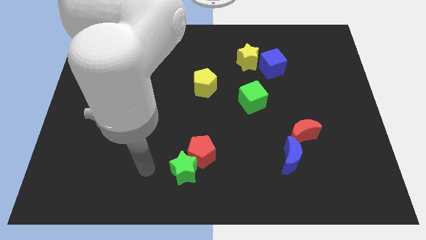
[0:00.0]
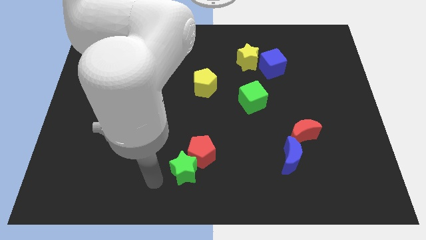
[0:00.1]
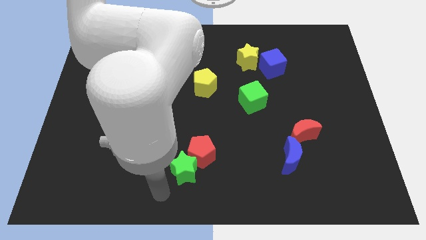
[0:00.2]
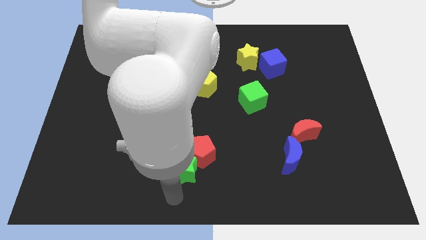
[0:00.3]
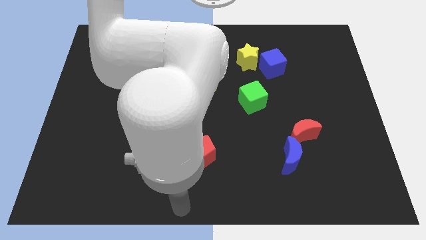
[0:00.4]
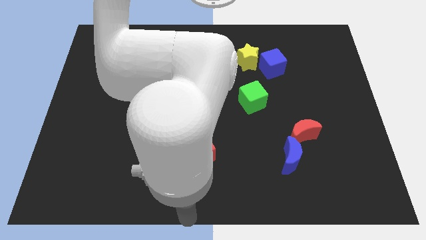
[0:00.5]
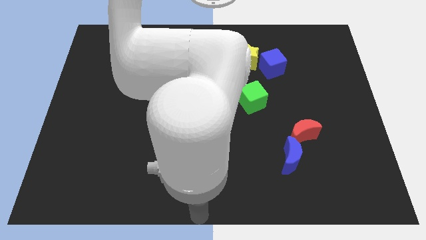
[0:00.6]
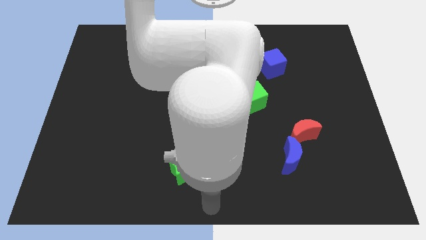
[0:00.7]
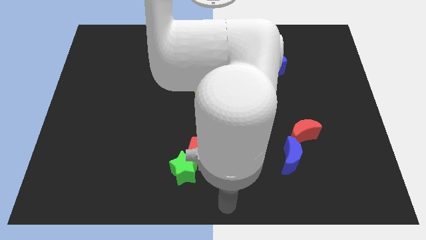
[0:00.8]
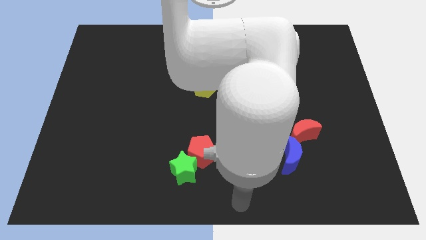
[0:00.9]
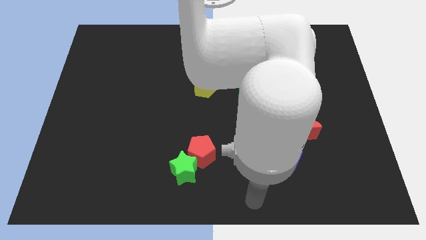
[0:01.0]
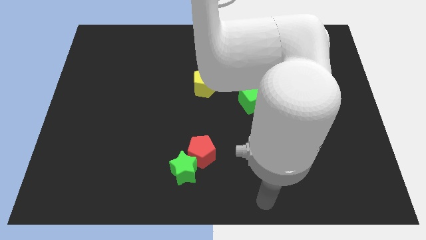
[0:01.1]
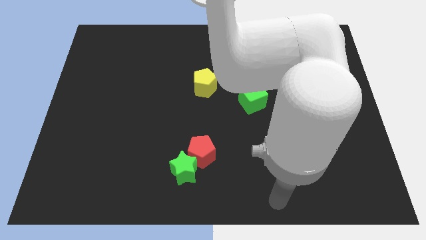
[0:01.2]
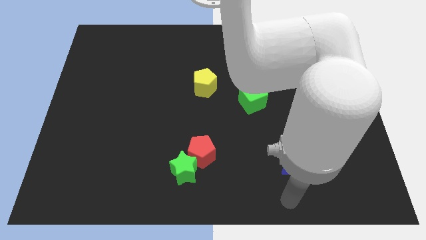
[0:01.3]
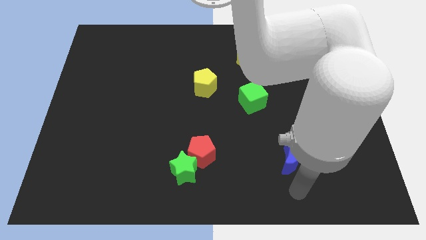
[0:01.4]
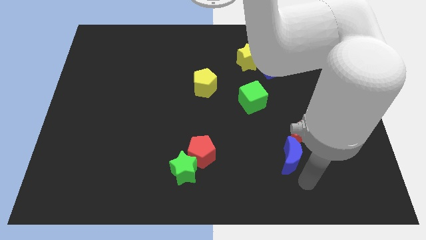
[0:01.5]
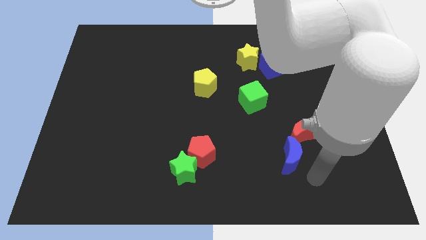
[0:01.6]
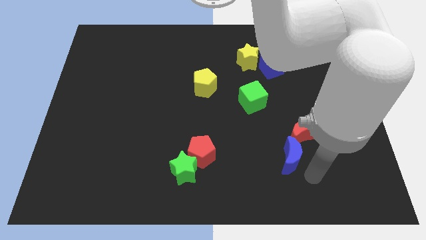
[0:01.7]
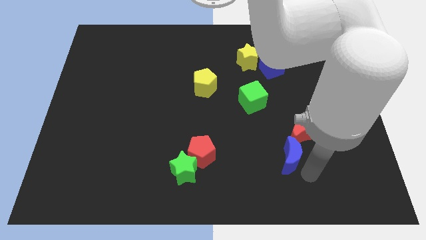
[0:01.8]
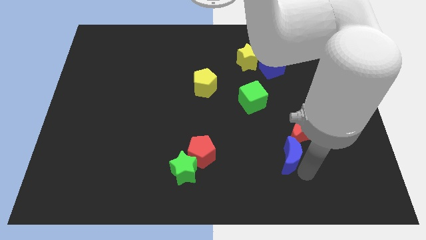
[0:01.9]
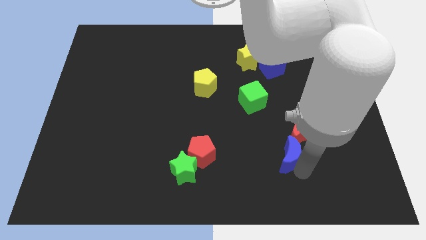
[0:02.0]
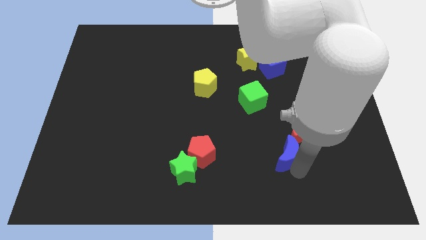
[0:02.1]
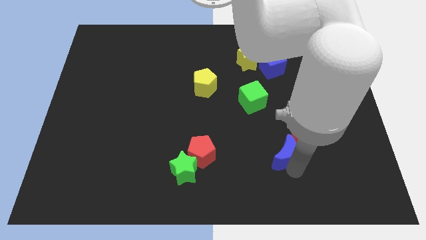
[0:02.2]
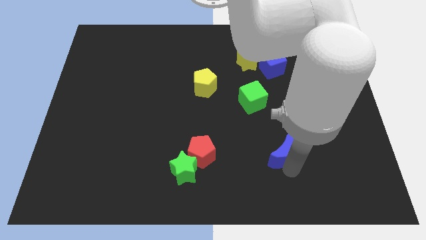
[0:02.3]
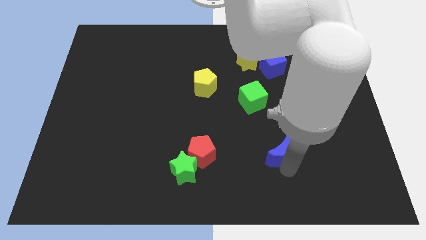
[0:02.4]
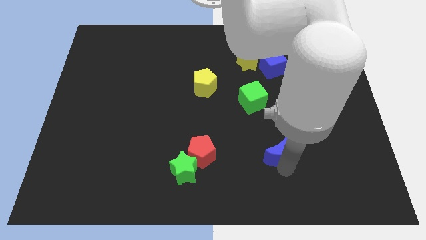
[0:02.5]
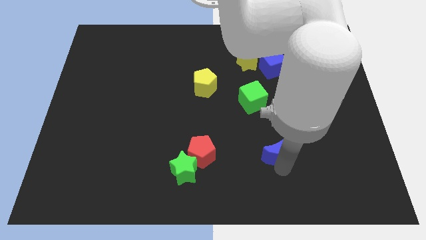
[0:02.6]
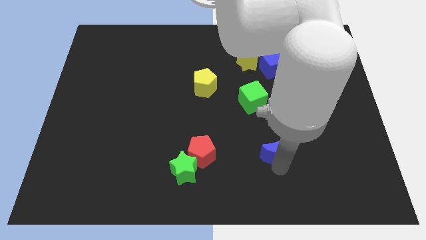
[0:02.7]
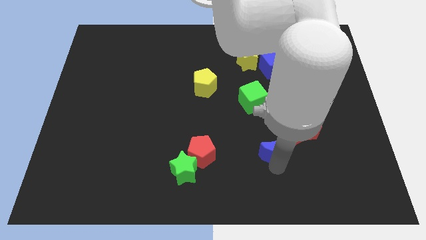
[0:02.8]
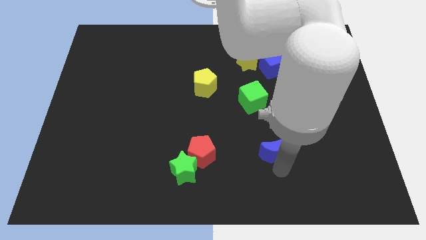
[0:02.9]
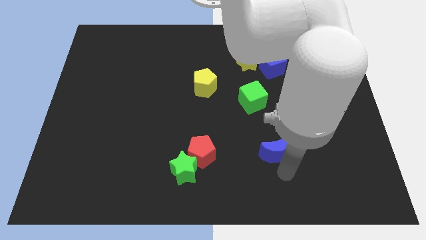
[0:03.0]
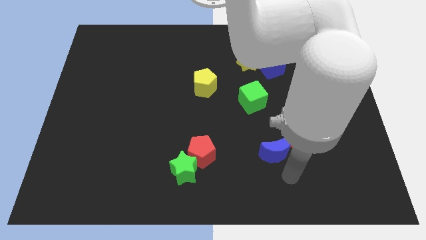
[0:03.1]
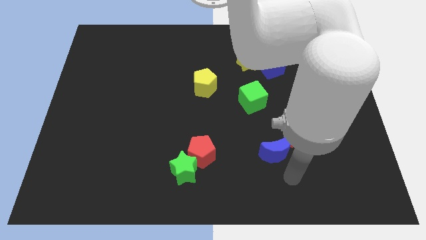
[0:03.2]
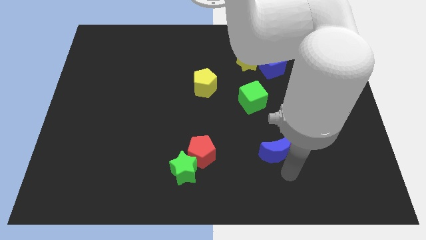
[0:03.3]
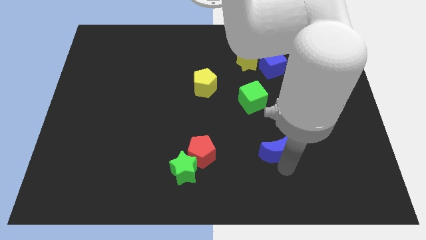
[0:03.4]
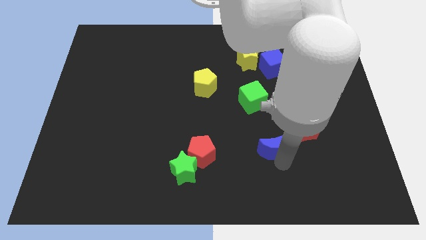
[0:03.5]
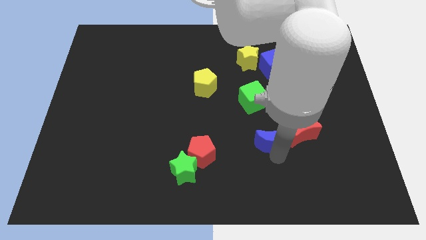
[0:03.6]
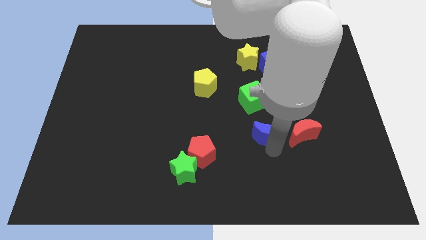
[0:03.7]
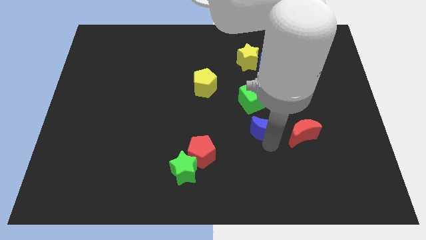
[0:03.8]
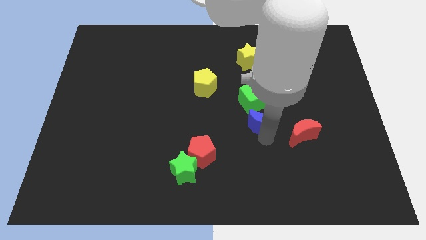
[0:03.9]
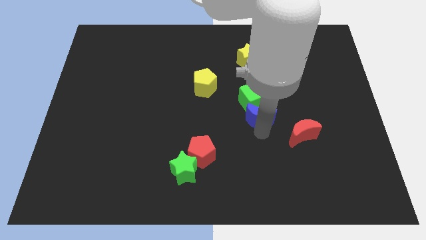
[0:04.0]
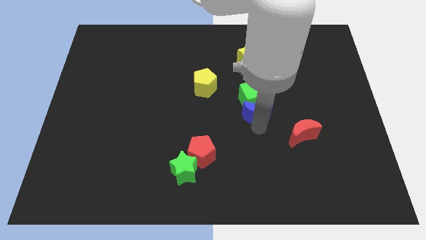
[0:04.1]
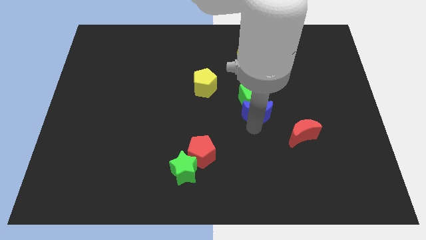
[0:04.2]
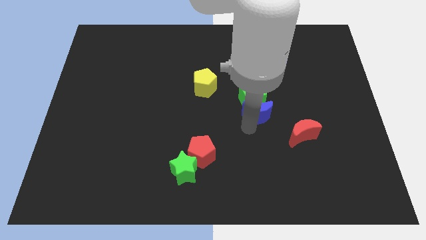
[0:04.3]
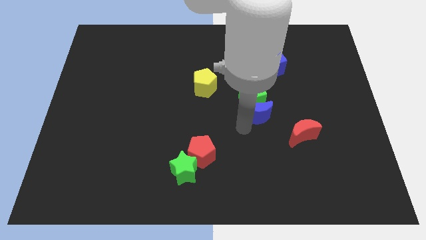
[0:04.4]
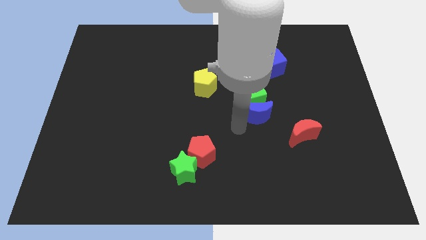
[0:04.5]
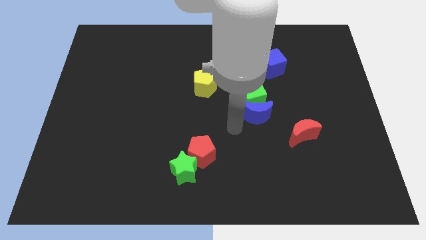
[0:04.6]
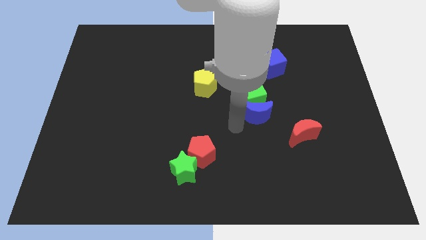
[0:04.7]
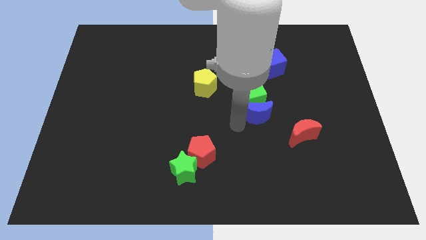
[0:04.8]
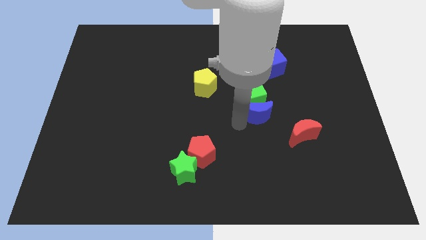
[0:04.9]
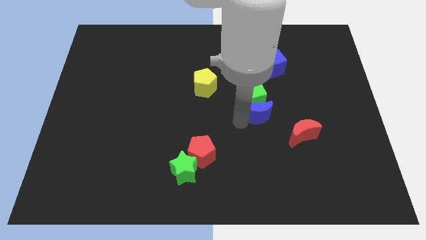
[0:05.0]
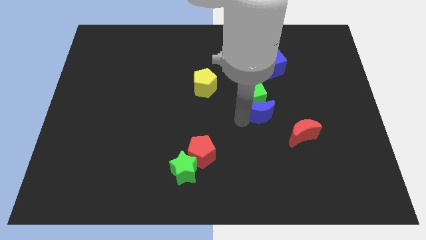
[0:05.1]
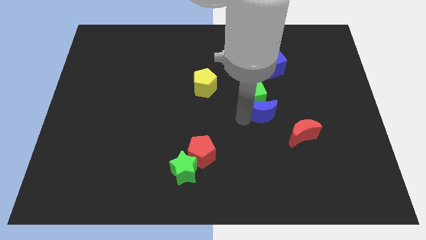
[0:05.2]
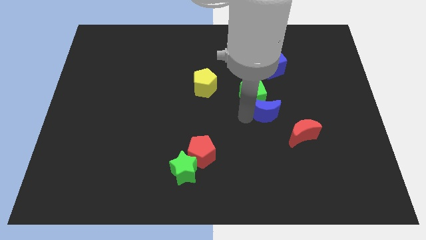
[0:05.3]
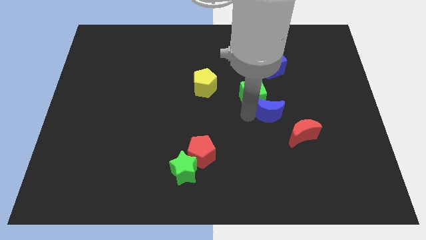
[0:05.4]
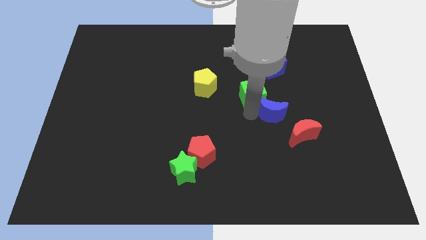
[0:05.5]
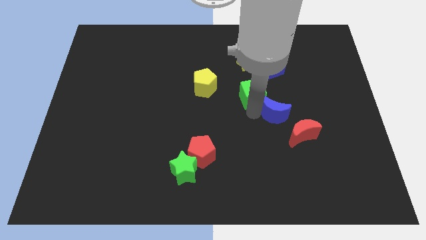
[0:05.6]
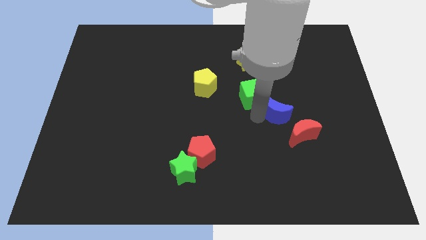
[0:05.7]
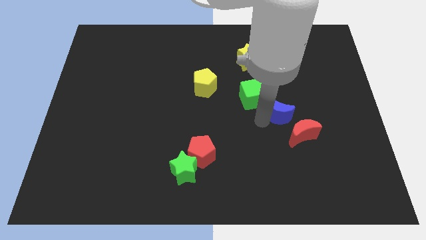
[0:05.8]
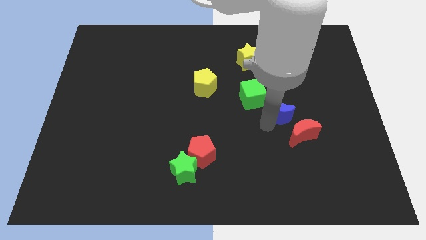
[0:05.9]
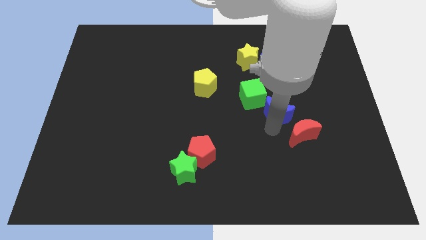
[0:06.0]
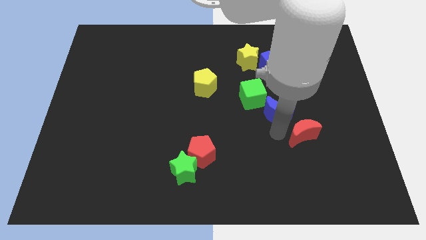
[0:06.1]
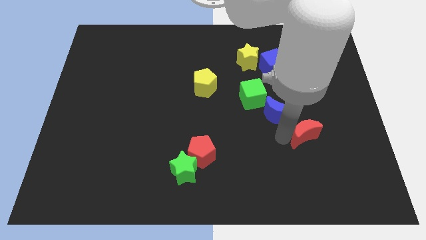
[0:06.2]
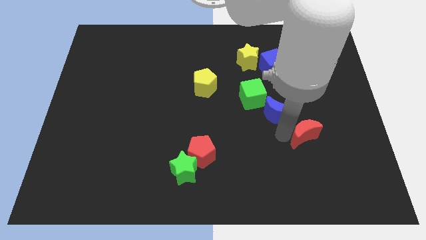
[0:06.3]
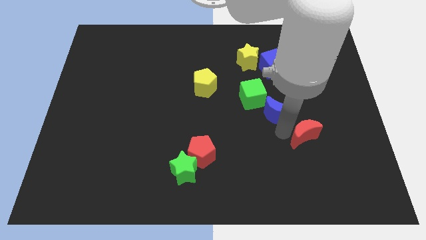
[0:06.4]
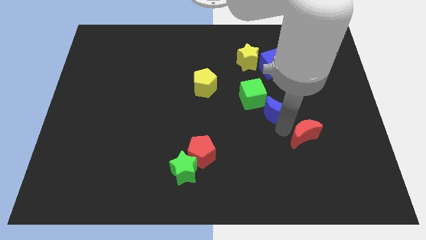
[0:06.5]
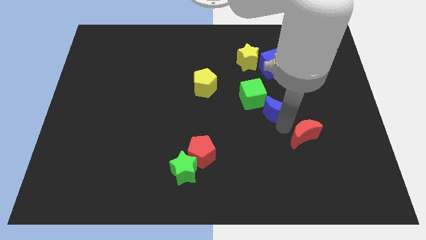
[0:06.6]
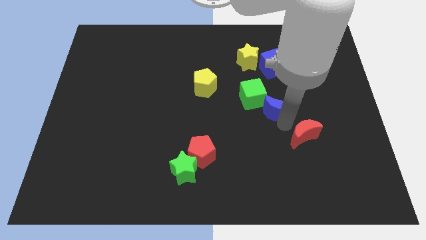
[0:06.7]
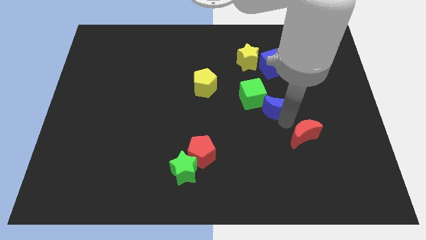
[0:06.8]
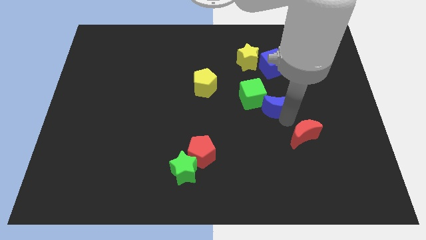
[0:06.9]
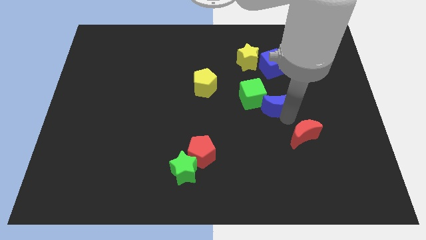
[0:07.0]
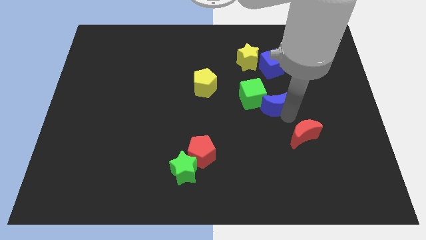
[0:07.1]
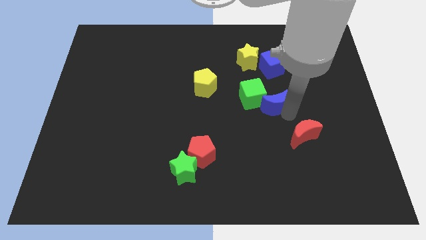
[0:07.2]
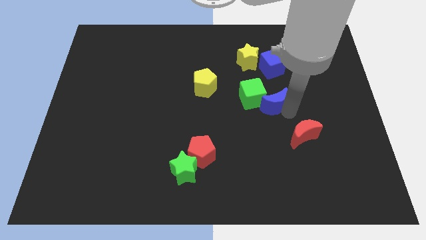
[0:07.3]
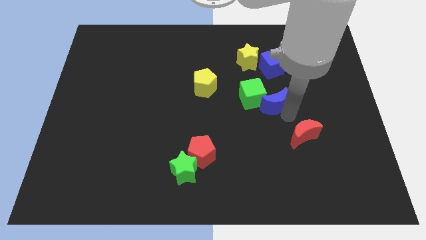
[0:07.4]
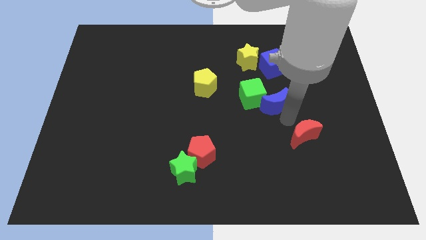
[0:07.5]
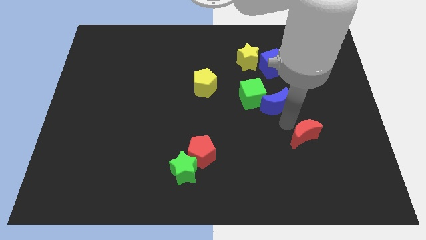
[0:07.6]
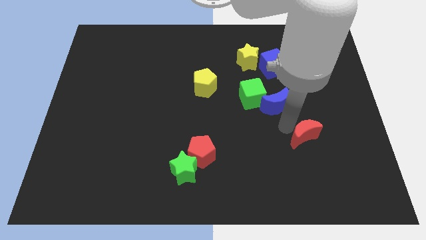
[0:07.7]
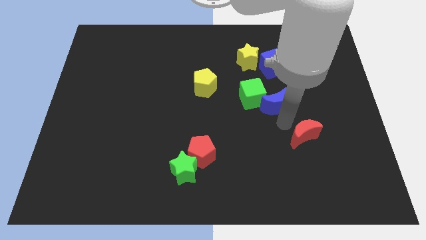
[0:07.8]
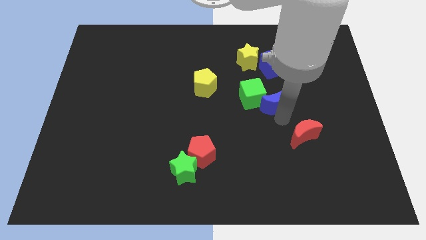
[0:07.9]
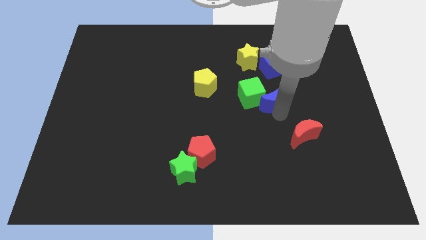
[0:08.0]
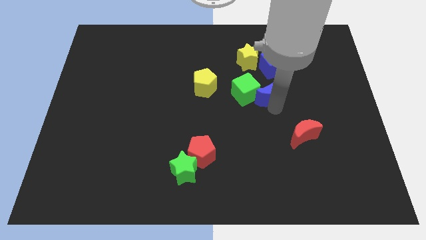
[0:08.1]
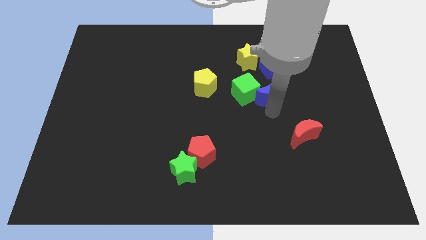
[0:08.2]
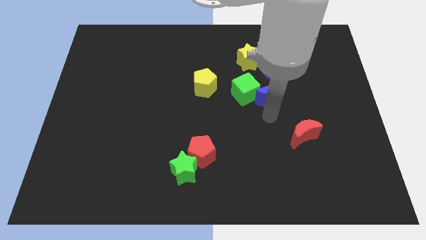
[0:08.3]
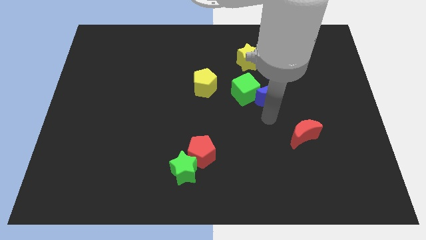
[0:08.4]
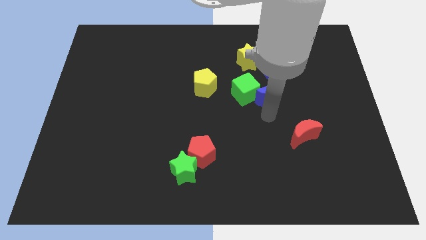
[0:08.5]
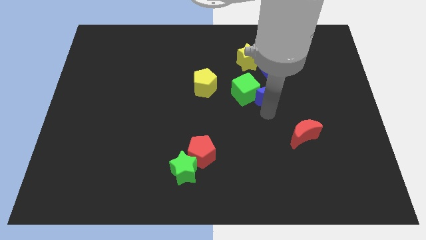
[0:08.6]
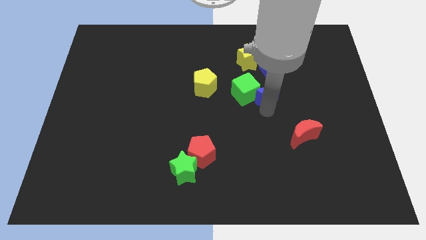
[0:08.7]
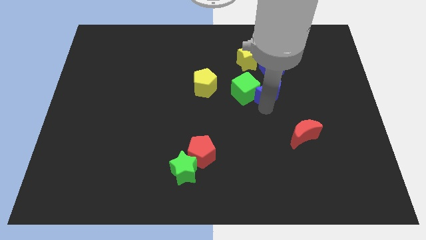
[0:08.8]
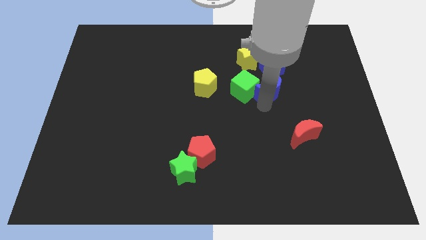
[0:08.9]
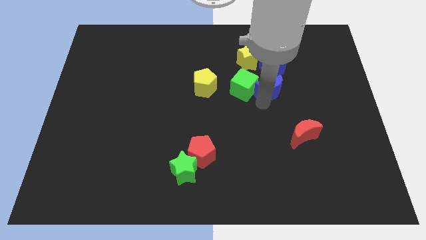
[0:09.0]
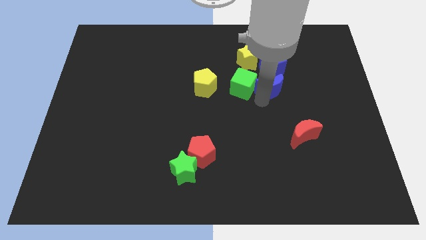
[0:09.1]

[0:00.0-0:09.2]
move the blue moon to the bottom right side of the yellow star
